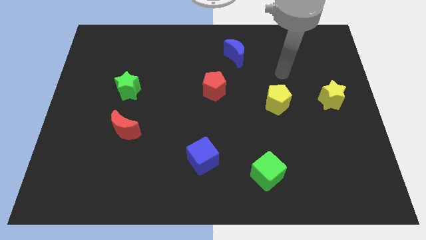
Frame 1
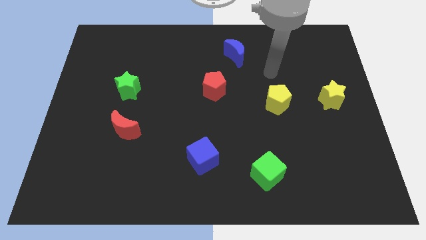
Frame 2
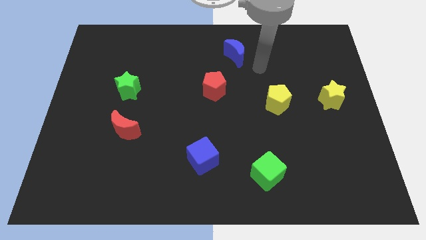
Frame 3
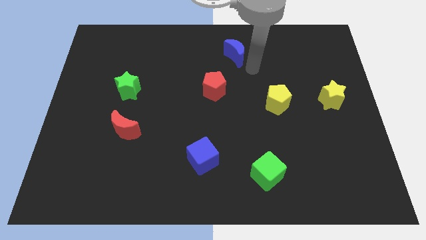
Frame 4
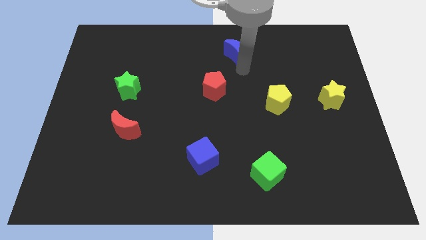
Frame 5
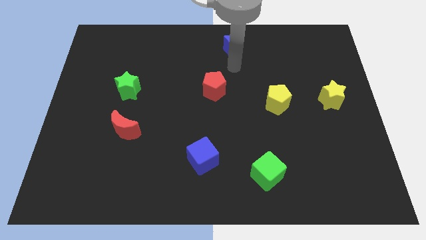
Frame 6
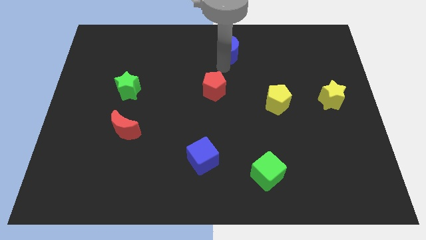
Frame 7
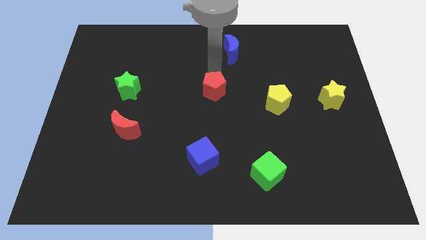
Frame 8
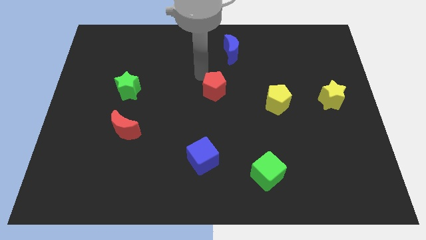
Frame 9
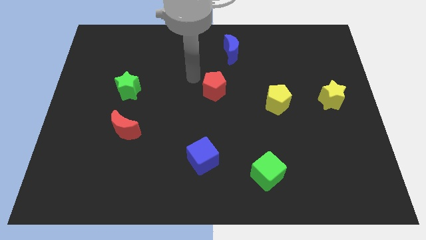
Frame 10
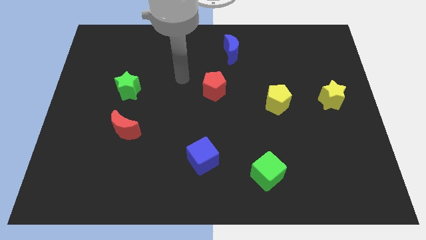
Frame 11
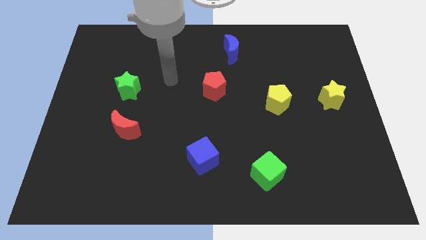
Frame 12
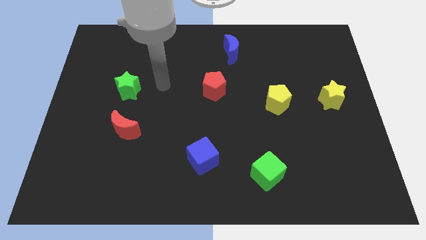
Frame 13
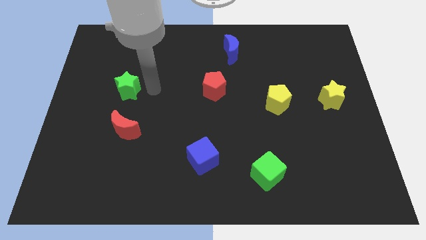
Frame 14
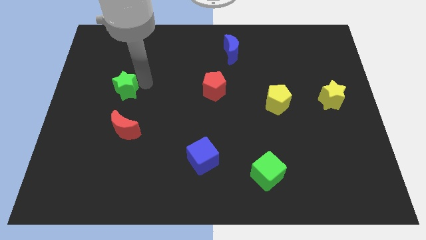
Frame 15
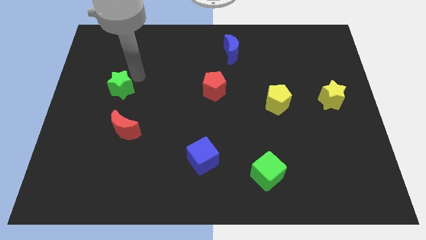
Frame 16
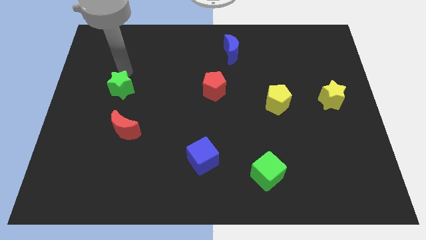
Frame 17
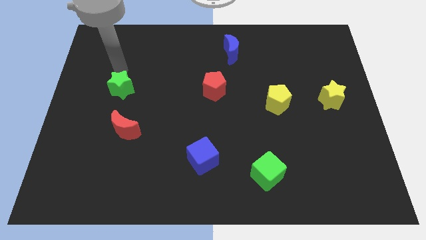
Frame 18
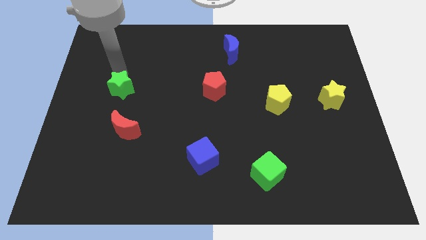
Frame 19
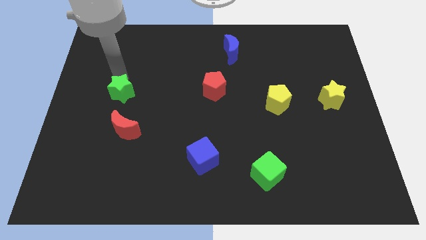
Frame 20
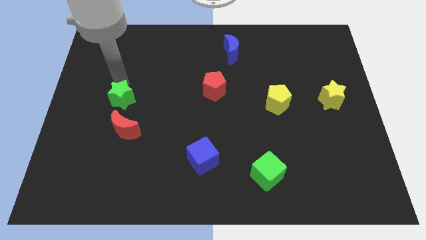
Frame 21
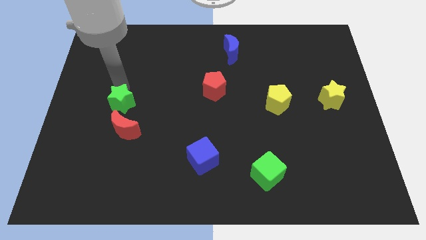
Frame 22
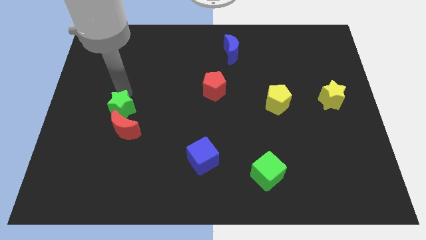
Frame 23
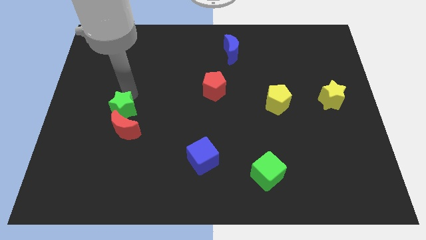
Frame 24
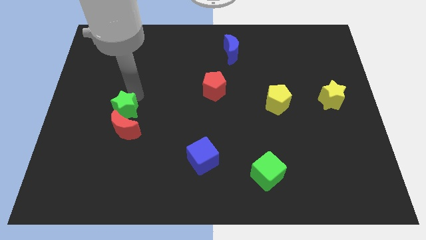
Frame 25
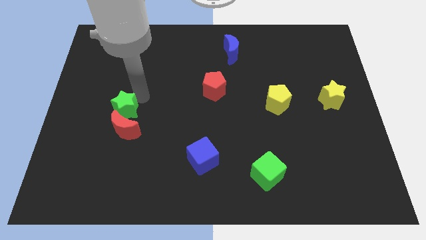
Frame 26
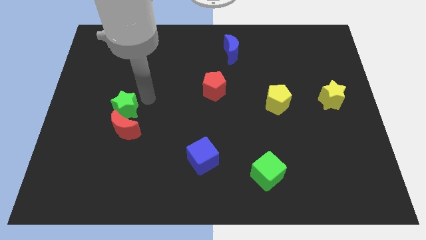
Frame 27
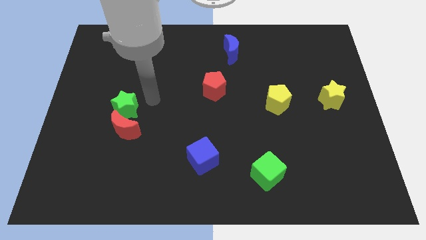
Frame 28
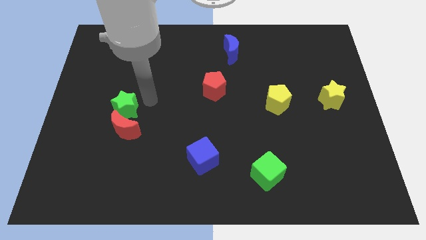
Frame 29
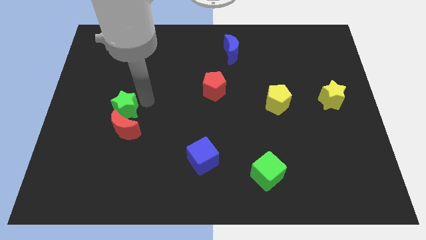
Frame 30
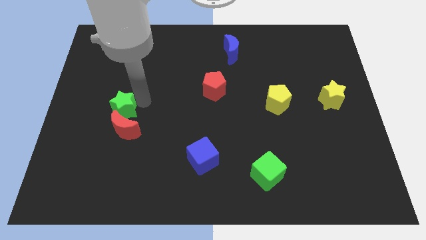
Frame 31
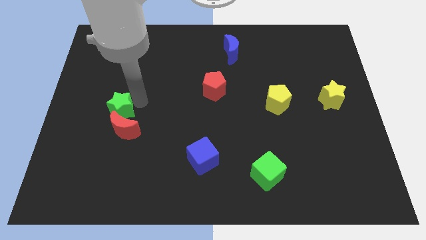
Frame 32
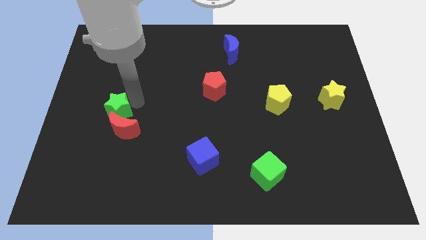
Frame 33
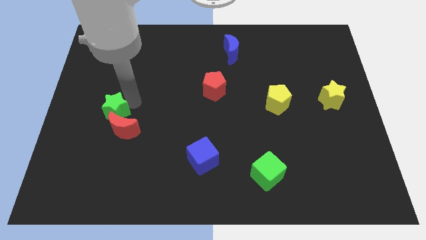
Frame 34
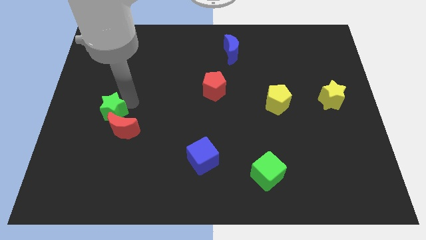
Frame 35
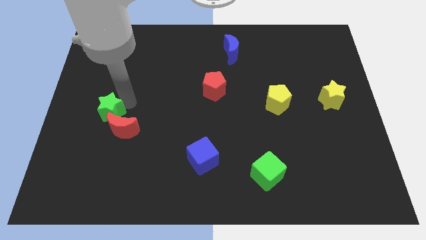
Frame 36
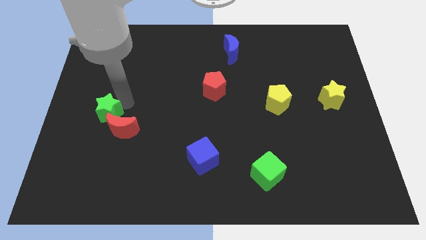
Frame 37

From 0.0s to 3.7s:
slightly push the green star downwards

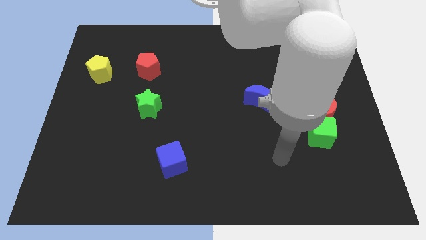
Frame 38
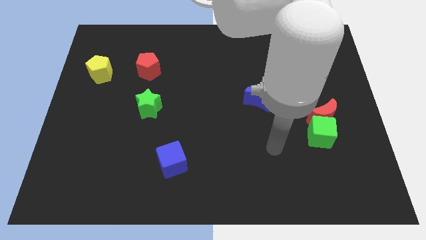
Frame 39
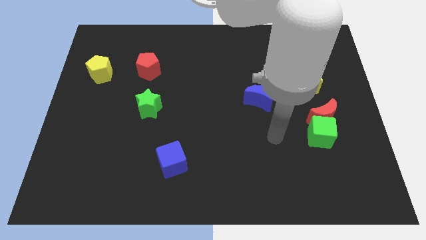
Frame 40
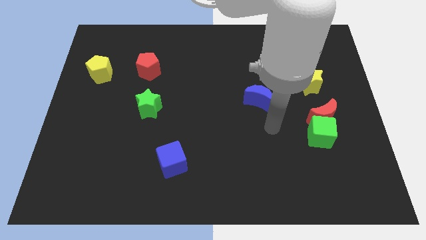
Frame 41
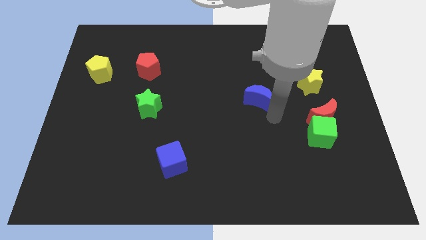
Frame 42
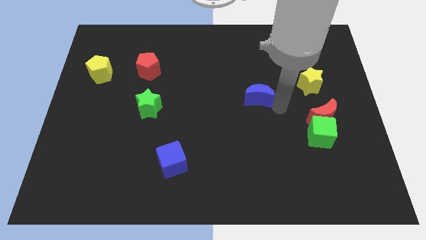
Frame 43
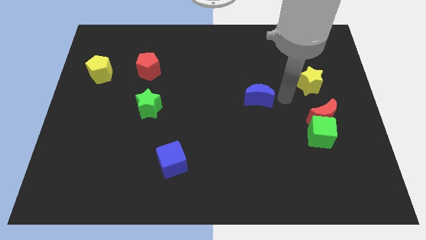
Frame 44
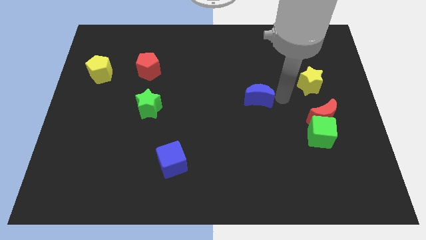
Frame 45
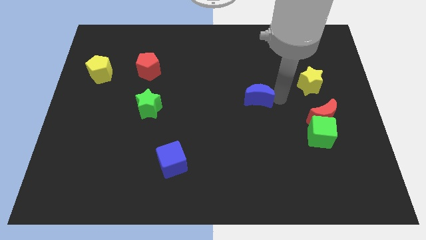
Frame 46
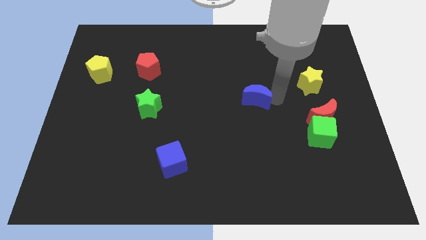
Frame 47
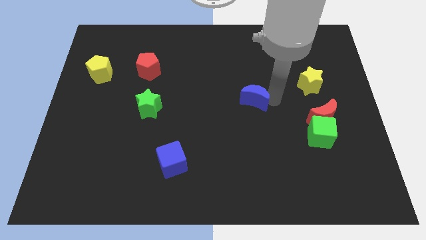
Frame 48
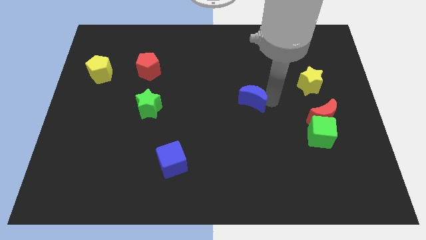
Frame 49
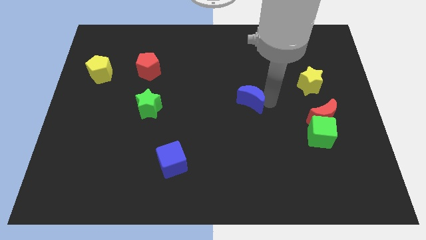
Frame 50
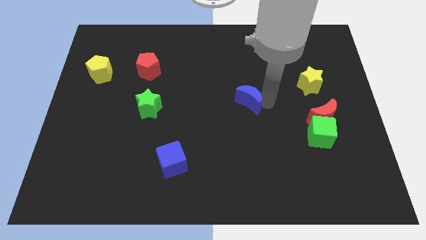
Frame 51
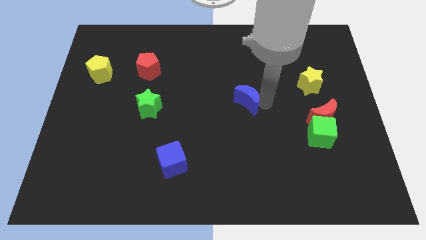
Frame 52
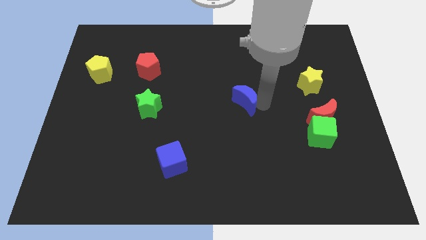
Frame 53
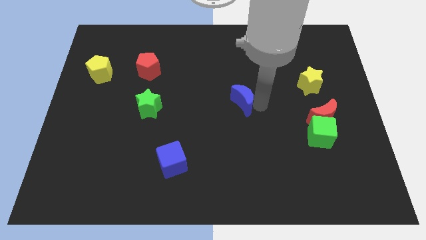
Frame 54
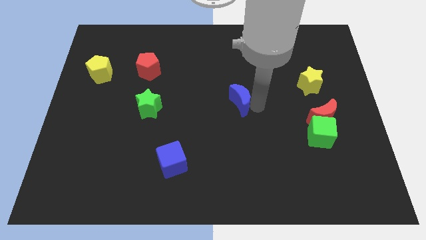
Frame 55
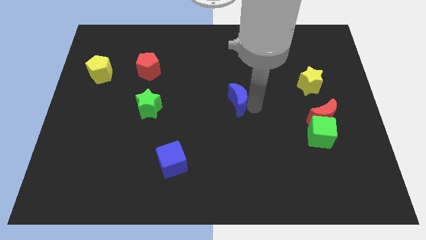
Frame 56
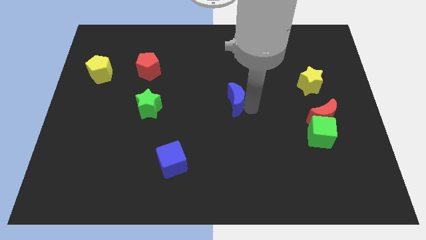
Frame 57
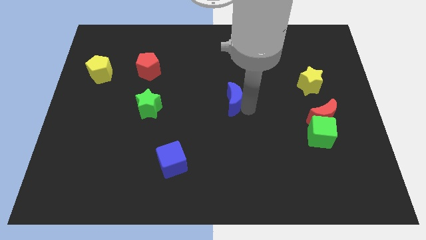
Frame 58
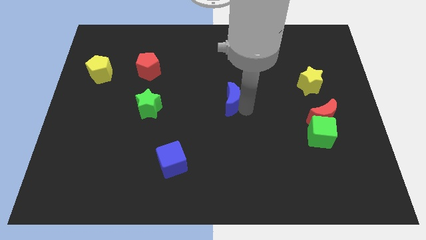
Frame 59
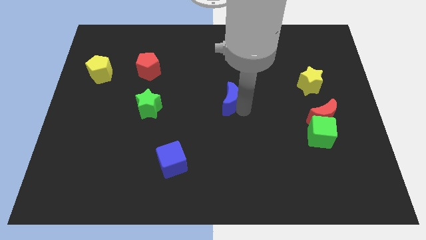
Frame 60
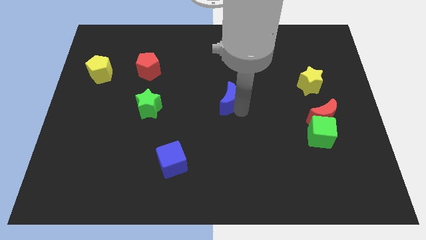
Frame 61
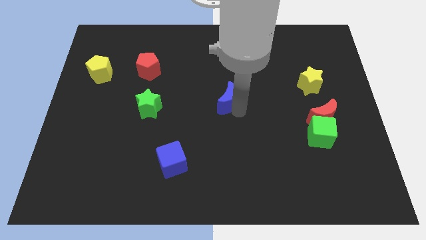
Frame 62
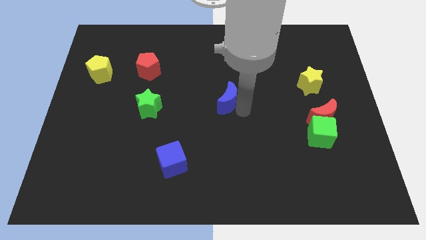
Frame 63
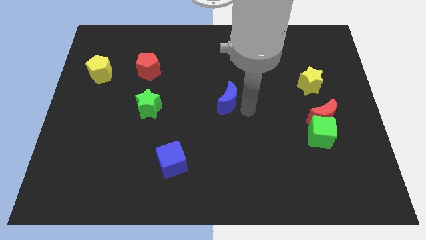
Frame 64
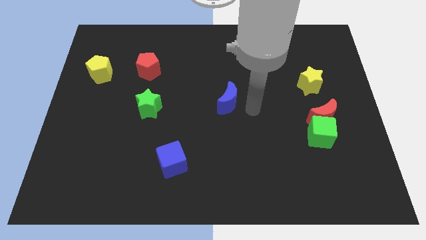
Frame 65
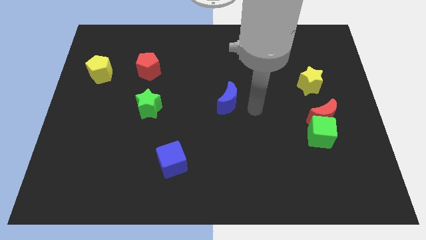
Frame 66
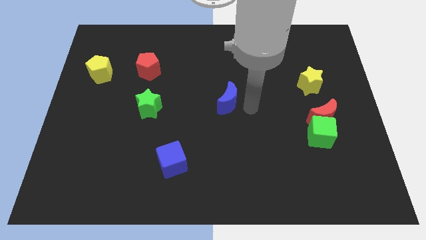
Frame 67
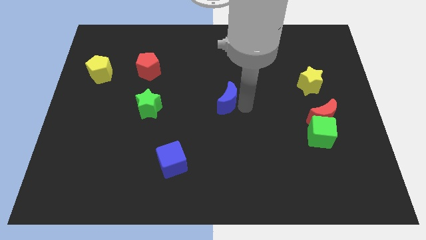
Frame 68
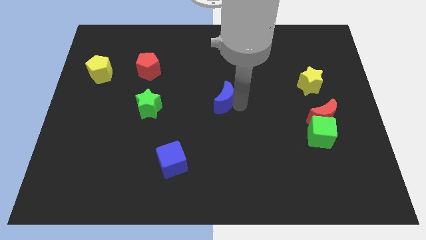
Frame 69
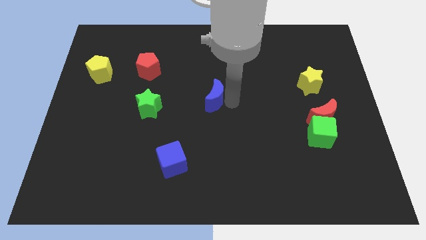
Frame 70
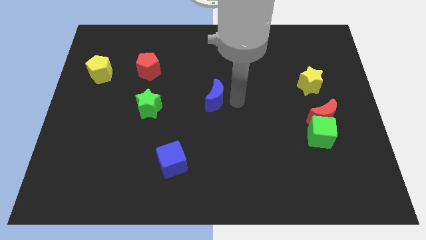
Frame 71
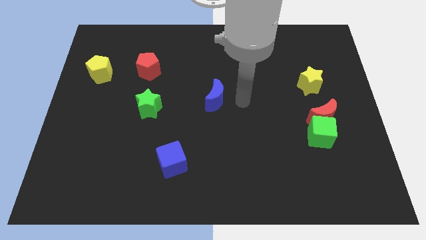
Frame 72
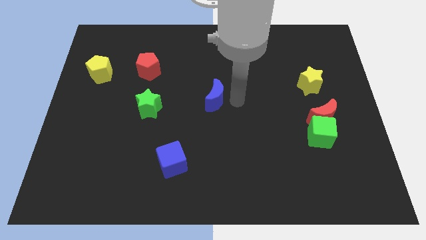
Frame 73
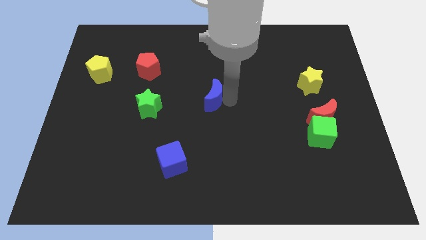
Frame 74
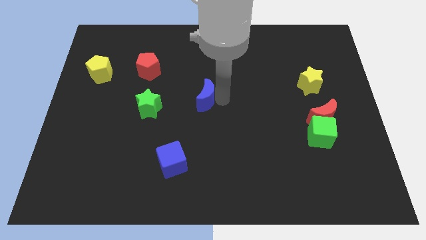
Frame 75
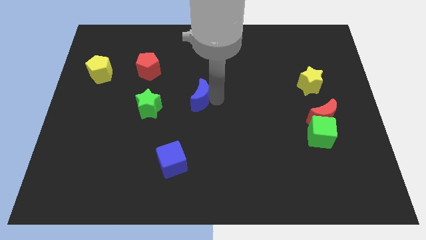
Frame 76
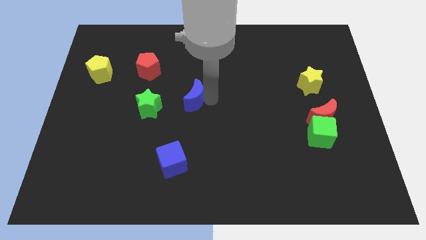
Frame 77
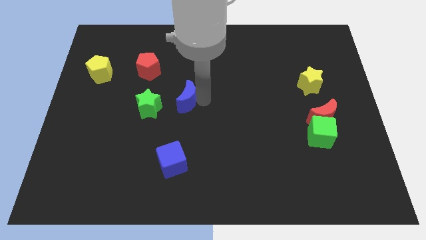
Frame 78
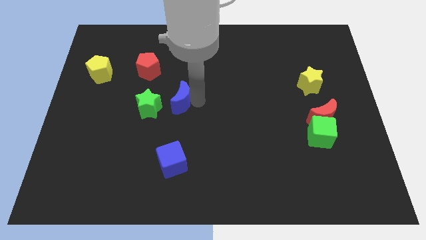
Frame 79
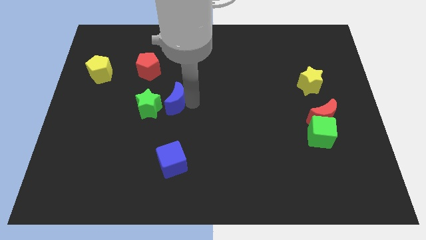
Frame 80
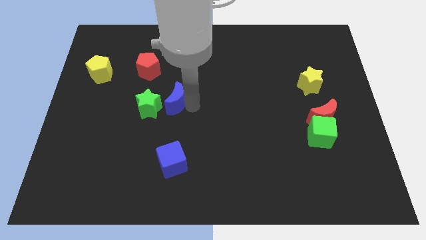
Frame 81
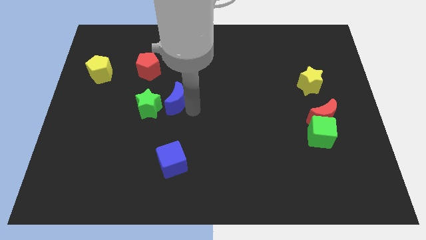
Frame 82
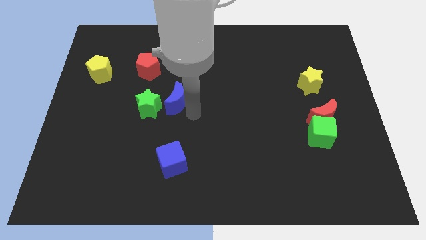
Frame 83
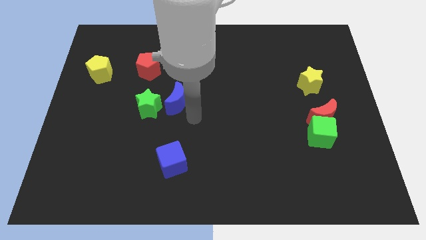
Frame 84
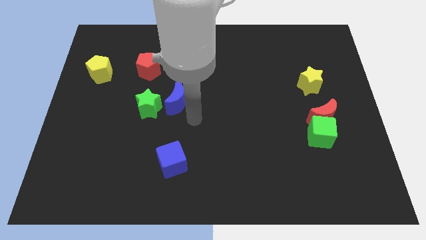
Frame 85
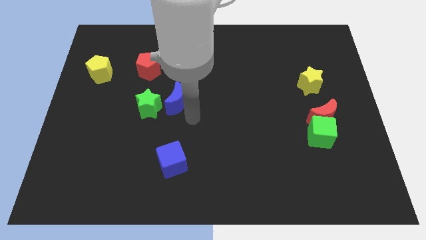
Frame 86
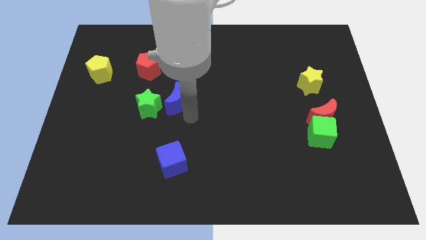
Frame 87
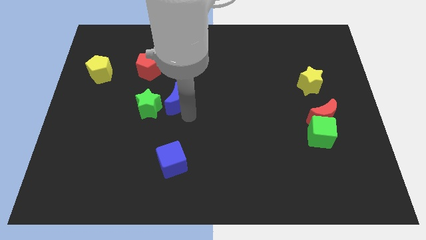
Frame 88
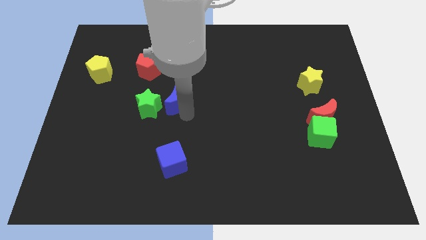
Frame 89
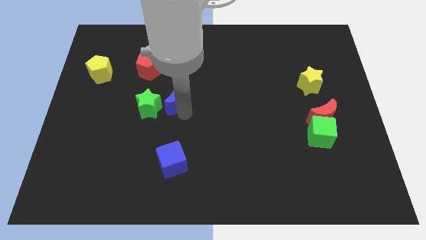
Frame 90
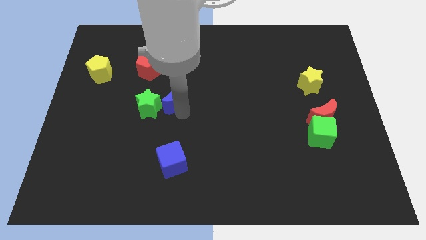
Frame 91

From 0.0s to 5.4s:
slide the blue moon to the left
